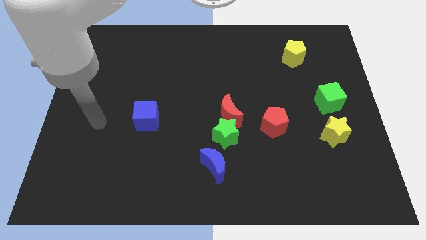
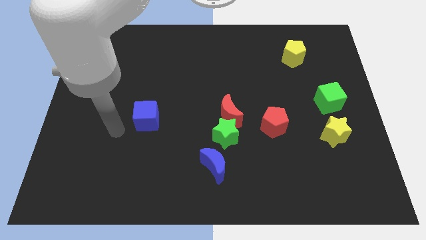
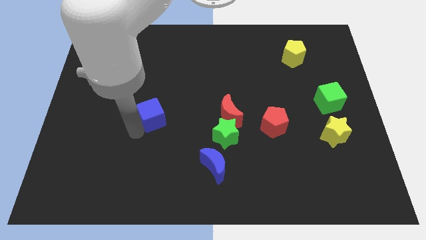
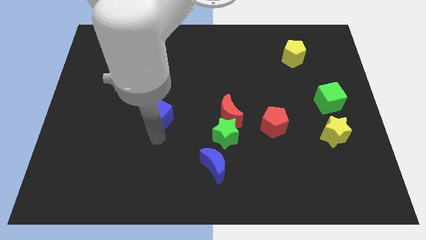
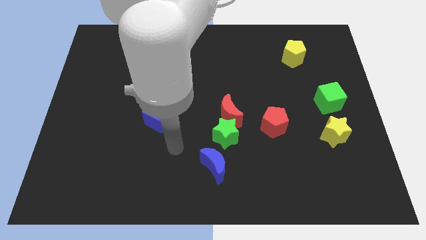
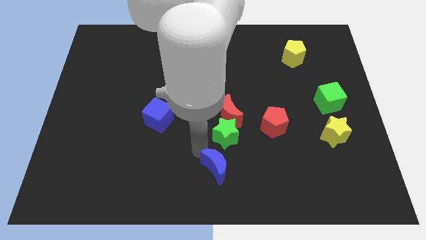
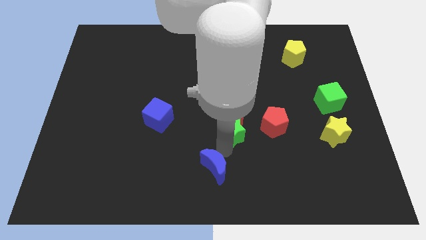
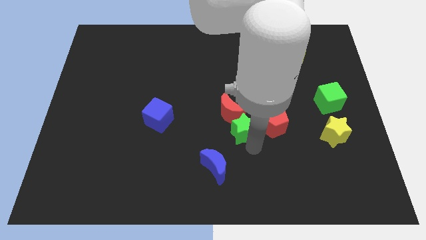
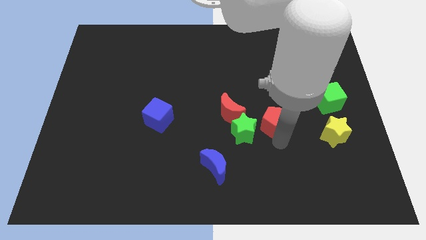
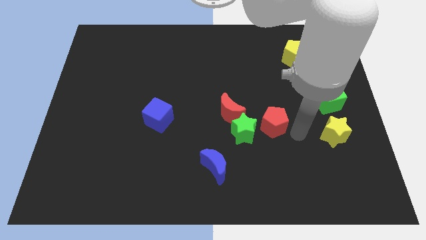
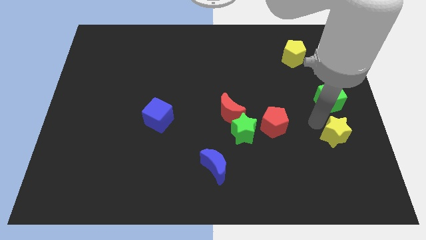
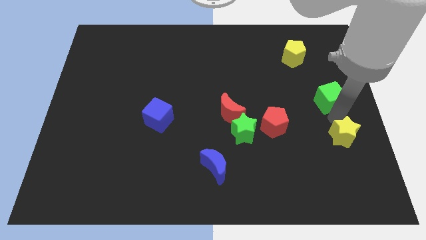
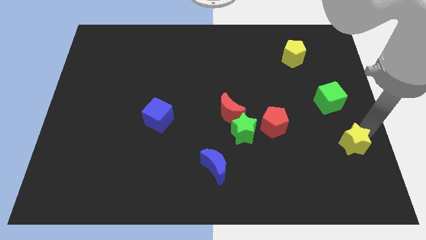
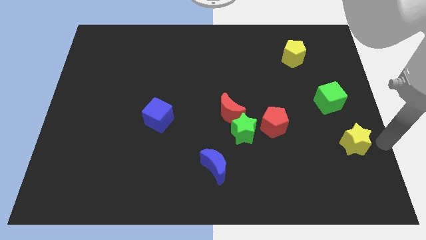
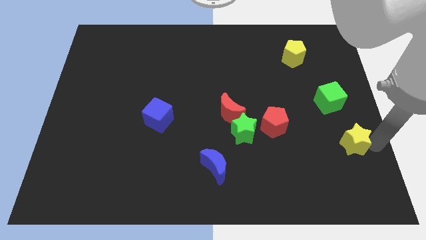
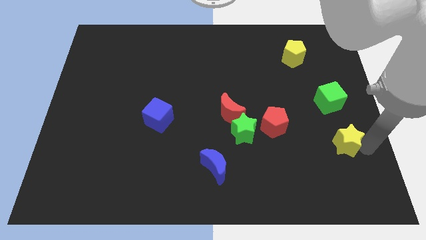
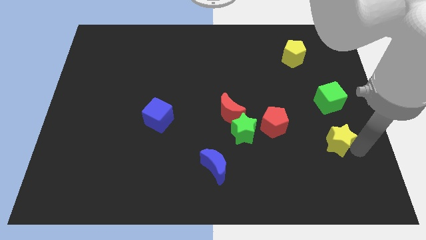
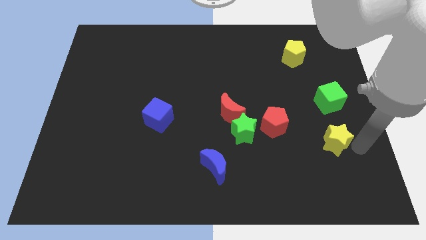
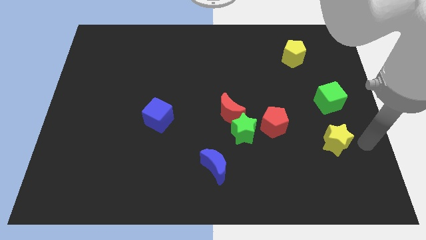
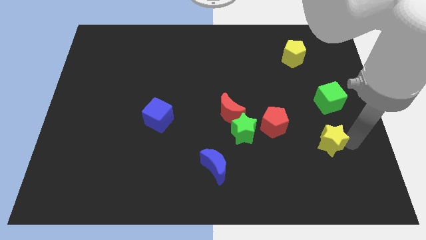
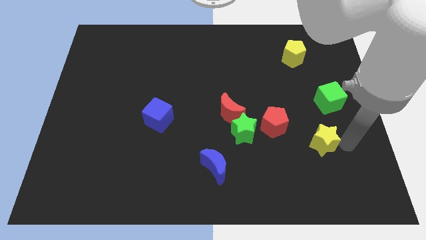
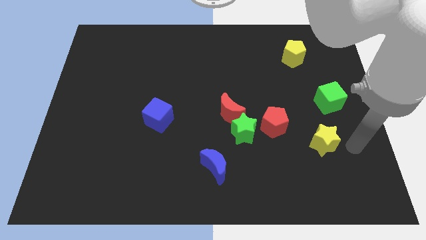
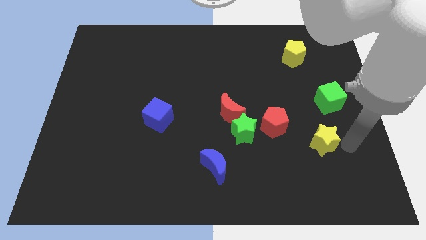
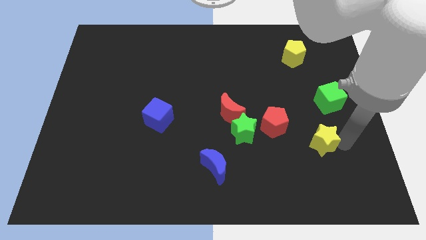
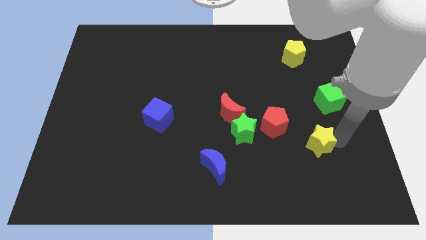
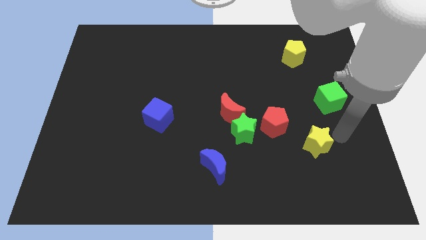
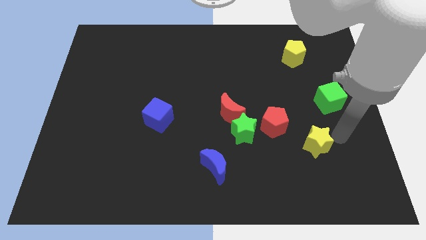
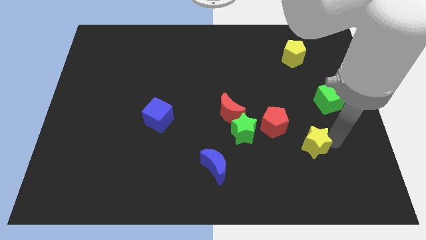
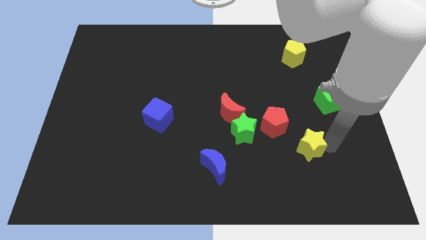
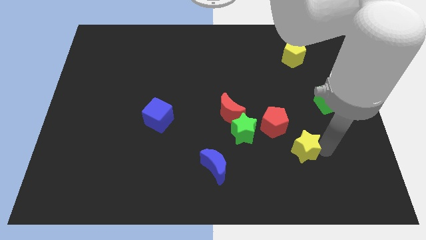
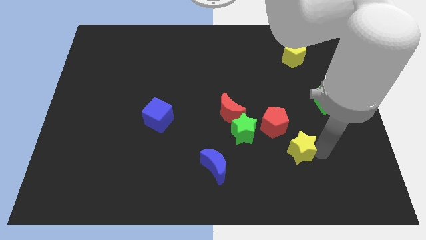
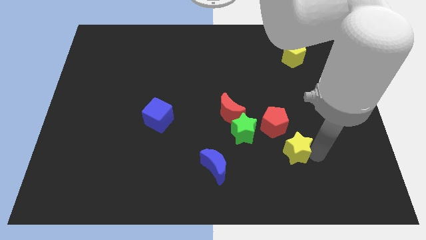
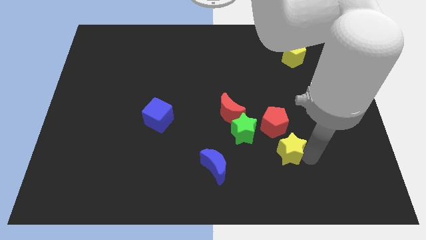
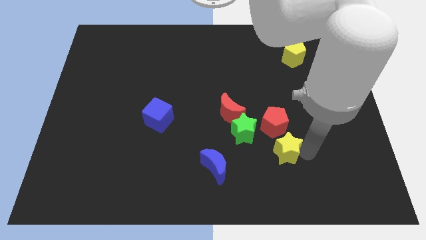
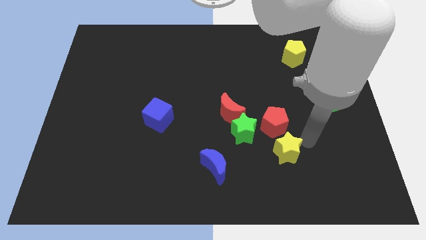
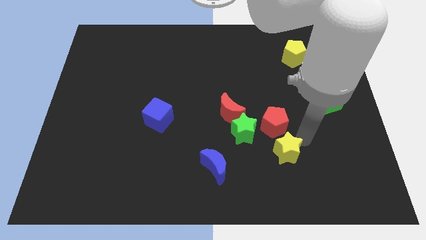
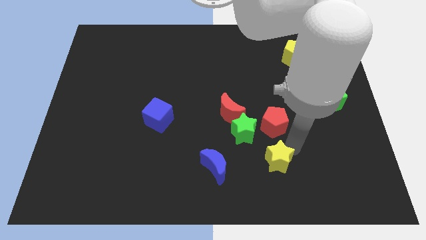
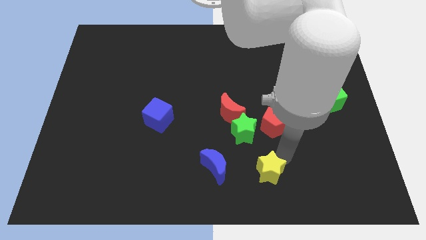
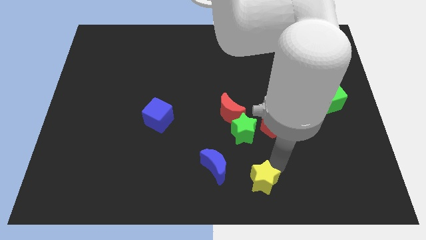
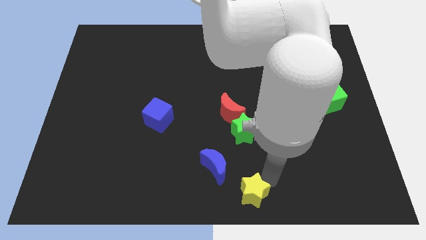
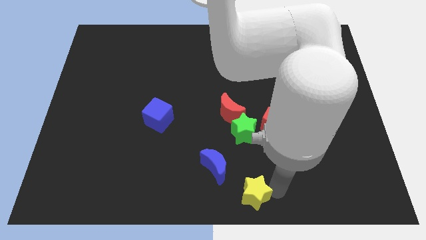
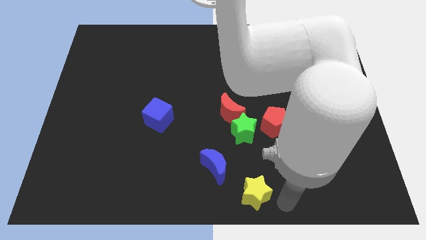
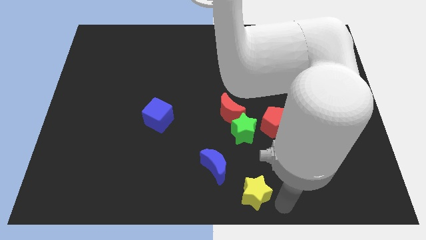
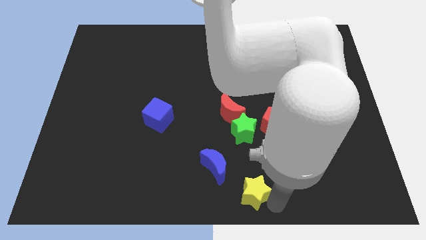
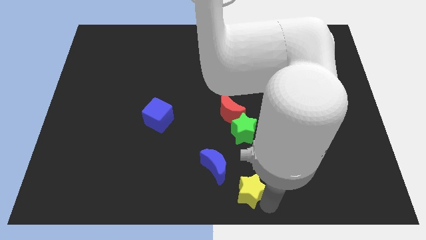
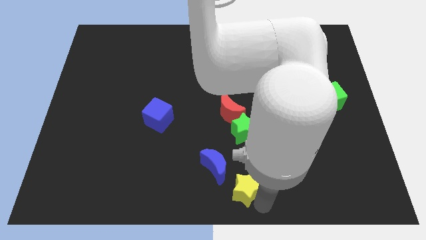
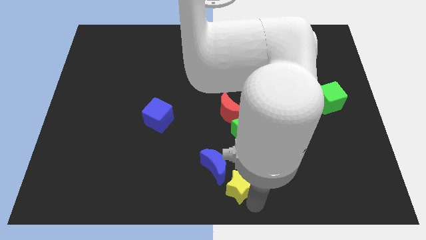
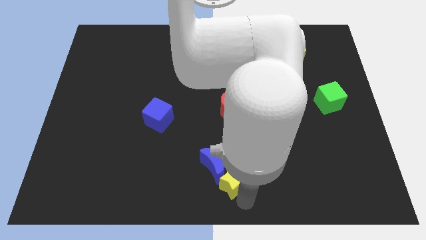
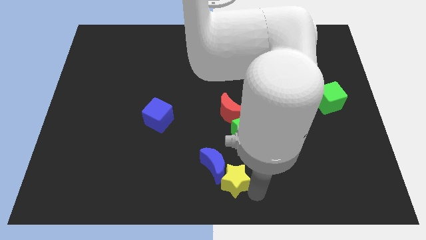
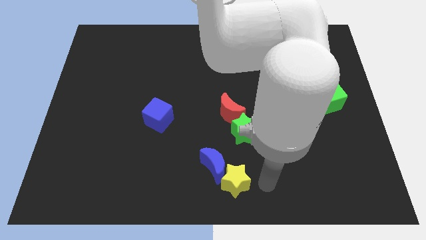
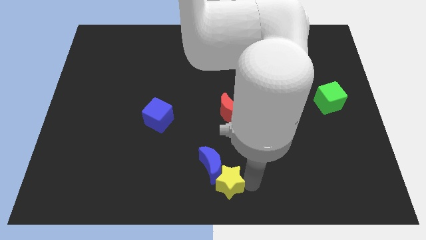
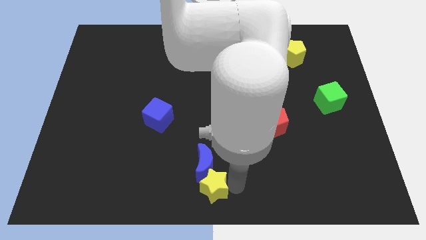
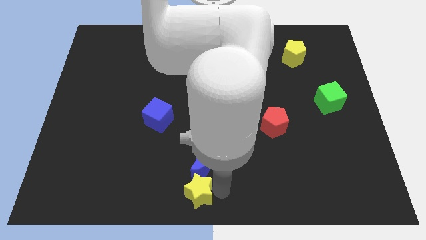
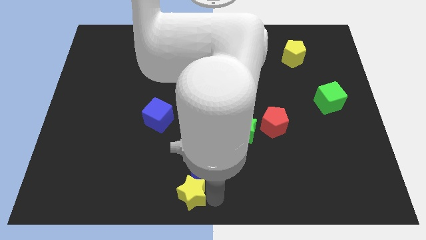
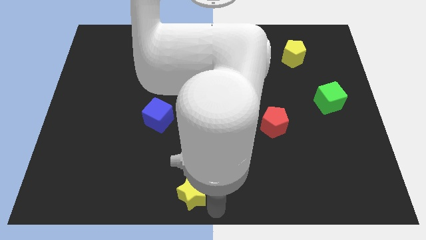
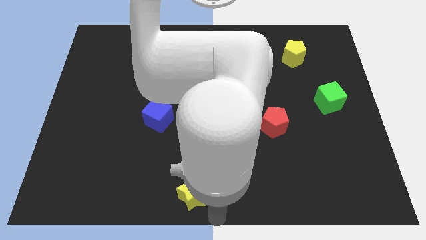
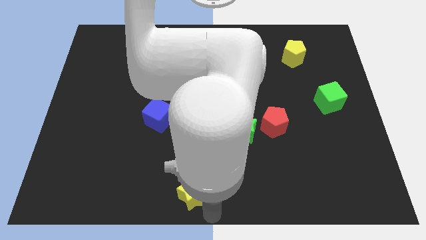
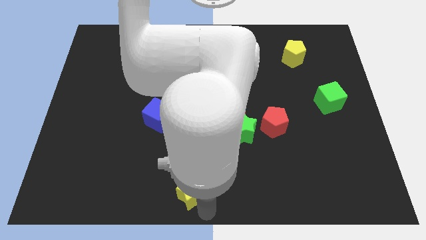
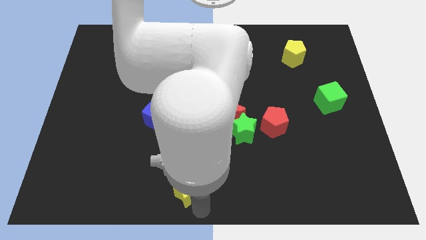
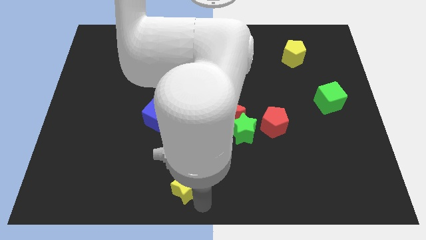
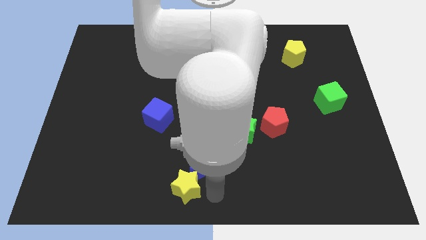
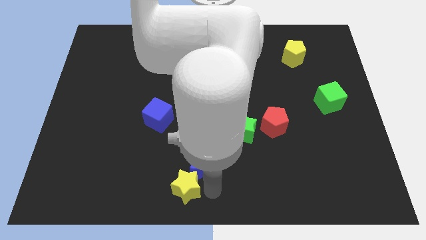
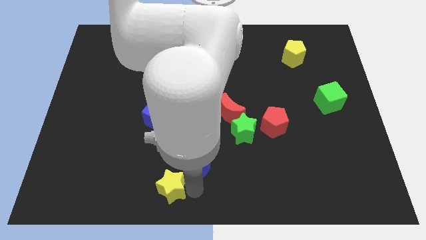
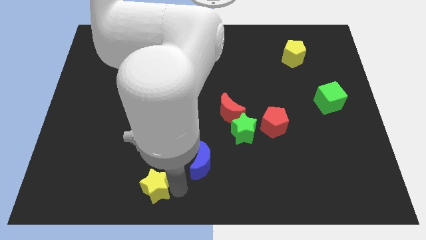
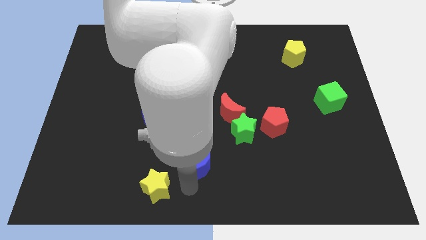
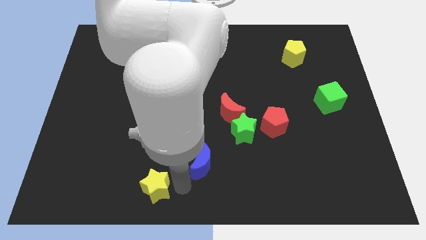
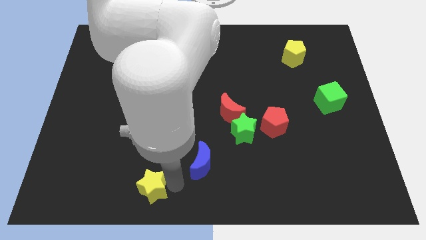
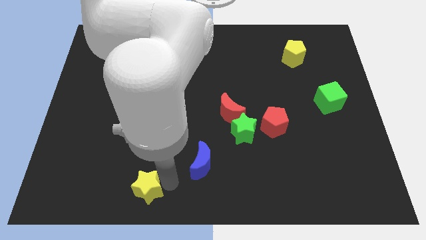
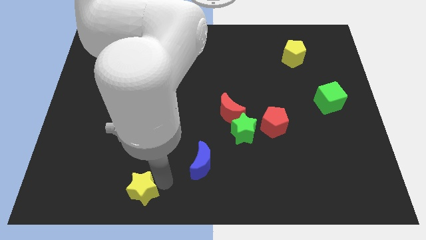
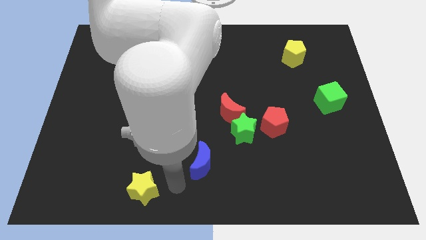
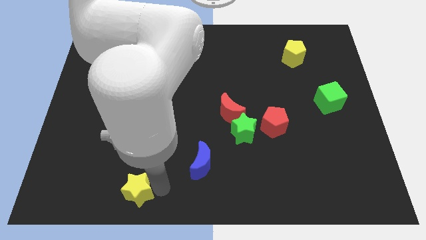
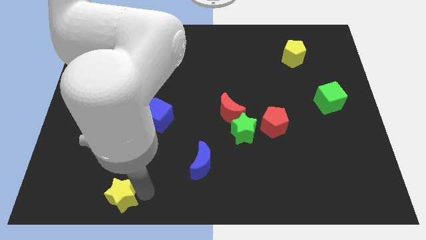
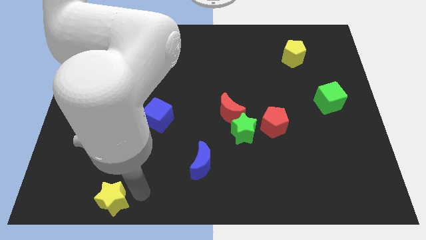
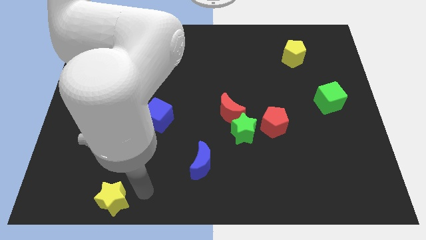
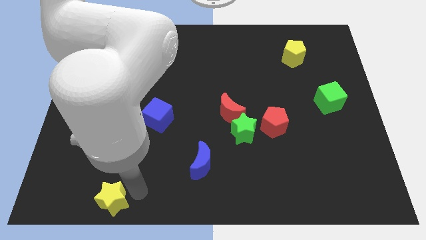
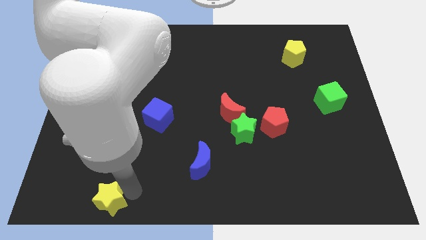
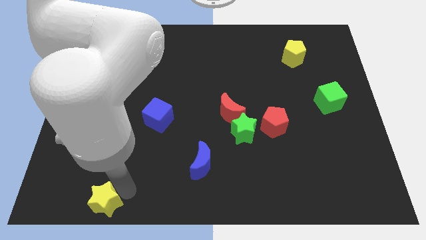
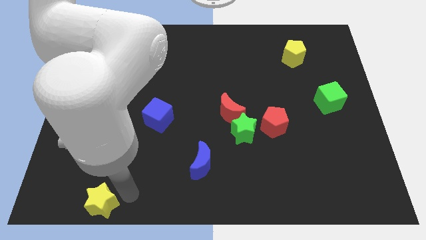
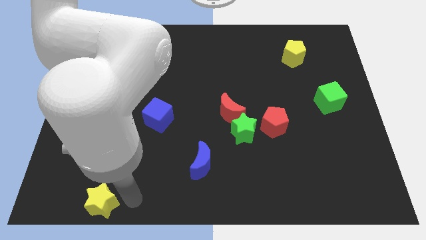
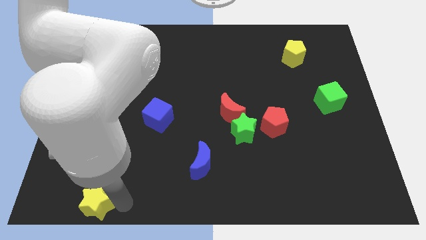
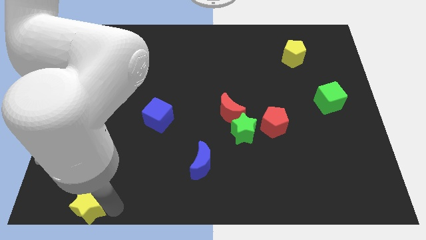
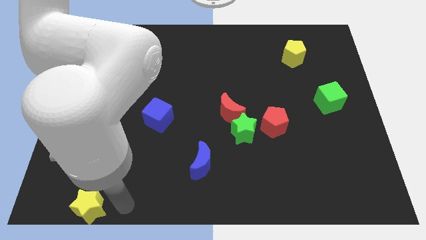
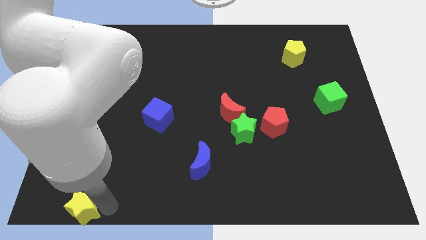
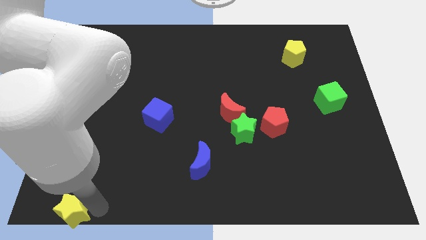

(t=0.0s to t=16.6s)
move the yellow star to the bottom left
